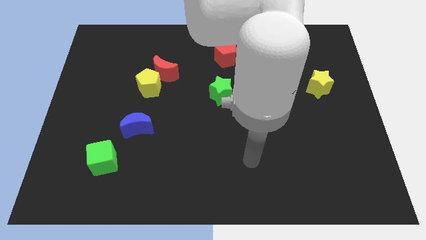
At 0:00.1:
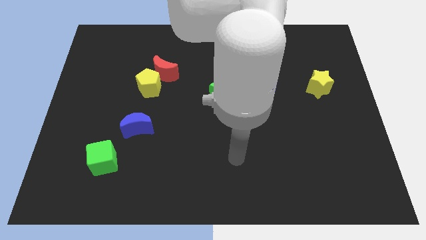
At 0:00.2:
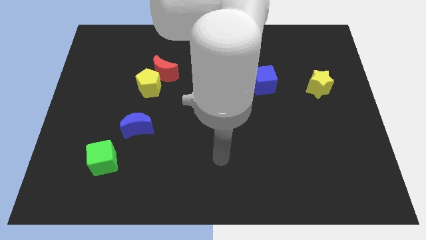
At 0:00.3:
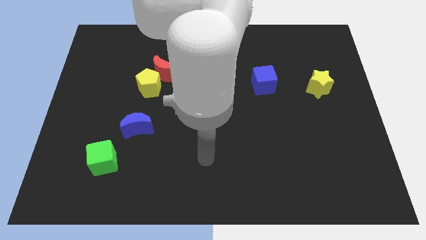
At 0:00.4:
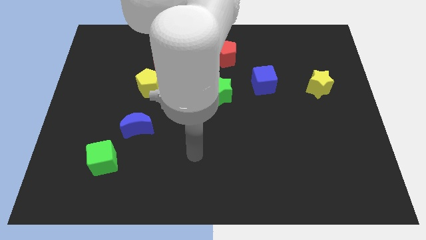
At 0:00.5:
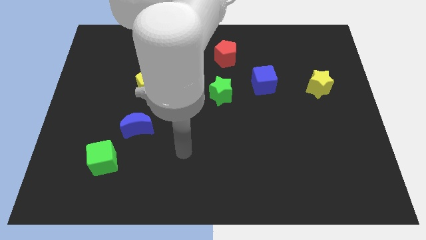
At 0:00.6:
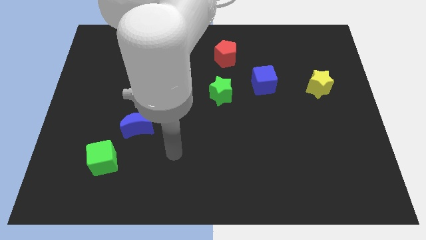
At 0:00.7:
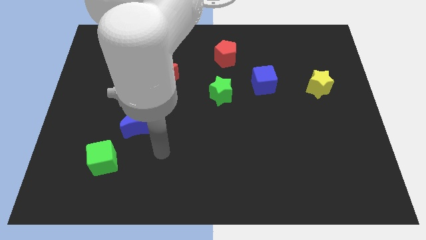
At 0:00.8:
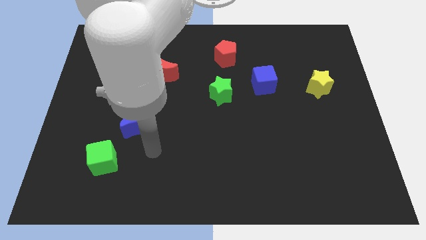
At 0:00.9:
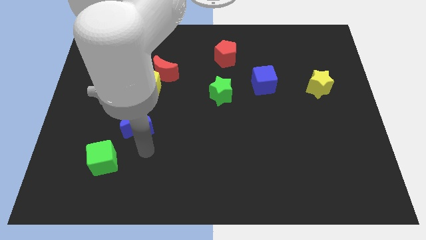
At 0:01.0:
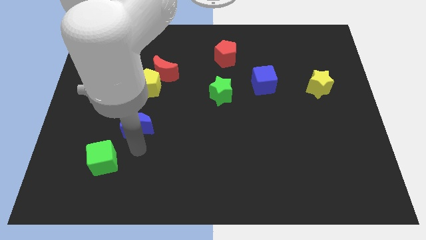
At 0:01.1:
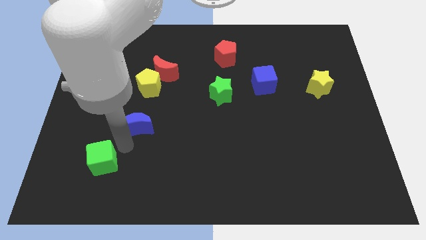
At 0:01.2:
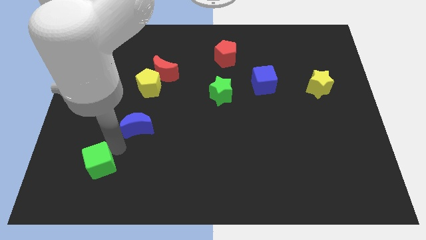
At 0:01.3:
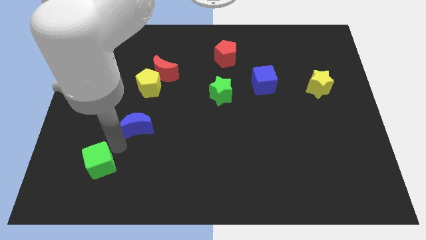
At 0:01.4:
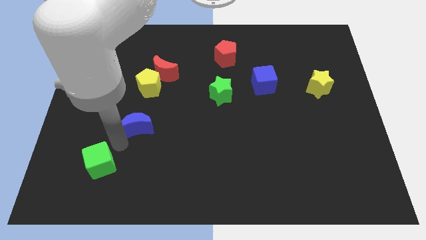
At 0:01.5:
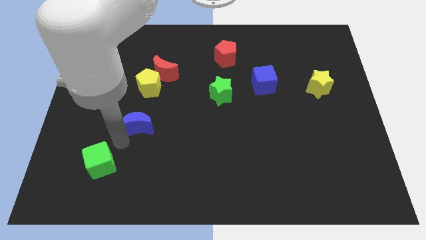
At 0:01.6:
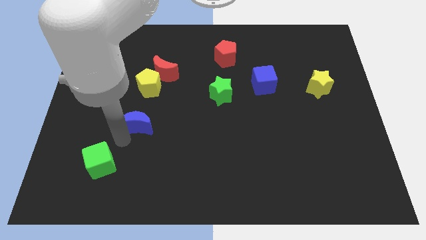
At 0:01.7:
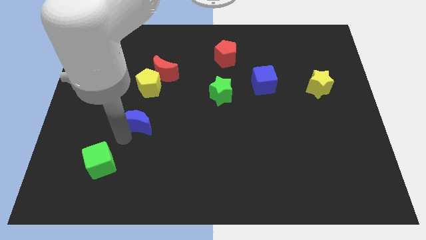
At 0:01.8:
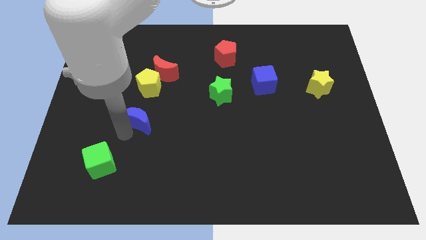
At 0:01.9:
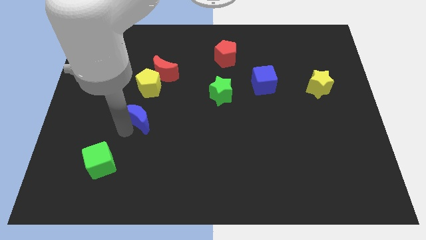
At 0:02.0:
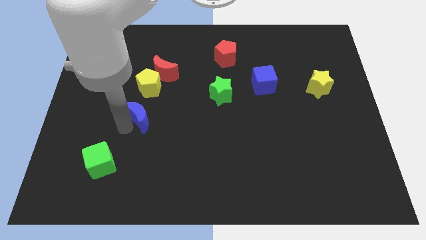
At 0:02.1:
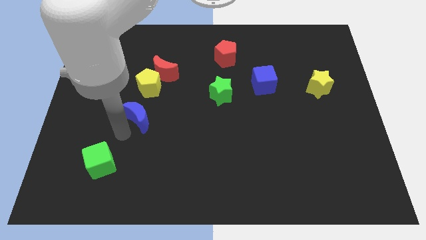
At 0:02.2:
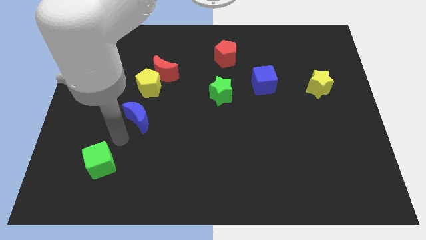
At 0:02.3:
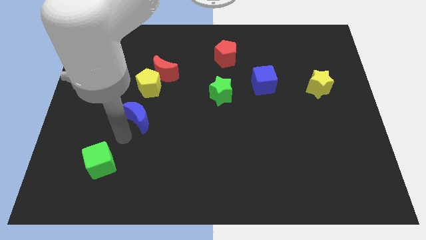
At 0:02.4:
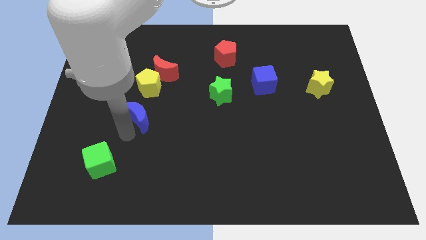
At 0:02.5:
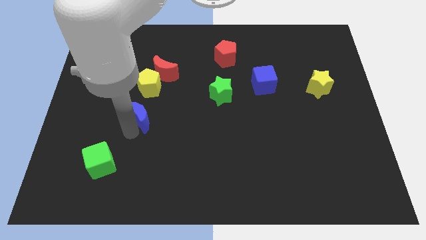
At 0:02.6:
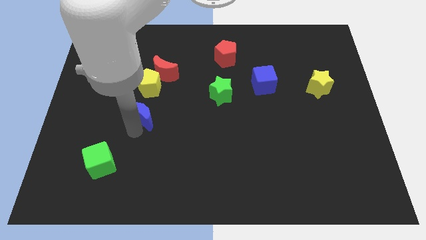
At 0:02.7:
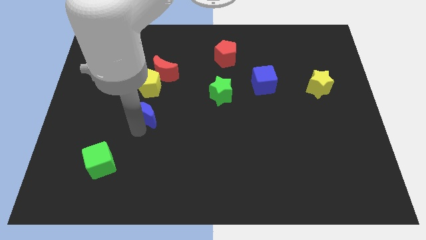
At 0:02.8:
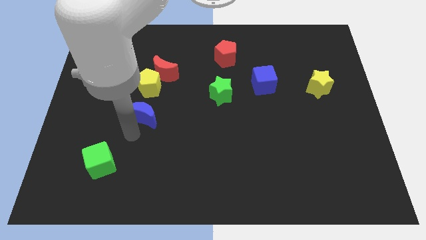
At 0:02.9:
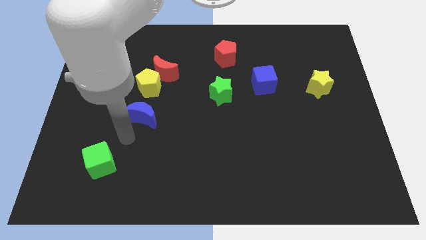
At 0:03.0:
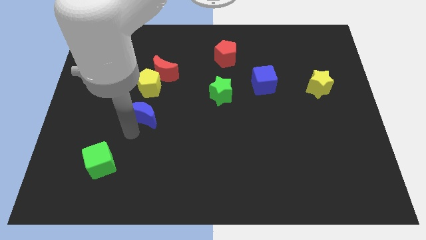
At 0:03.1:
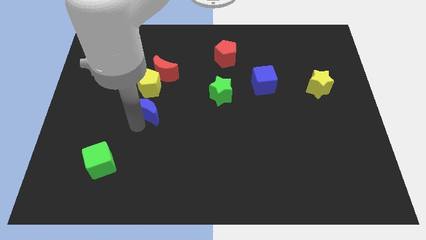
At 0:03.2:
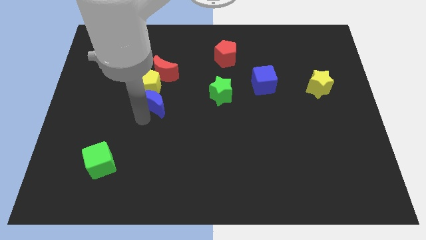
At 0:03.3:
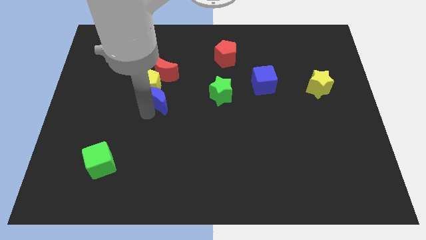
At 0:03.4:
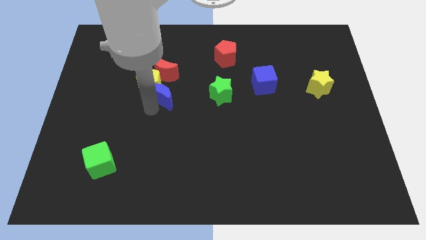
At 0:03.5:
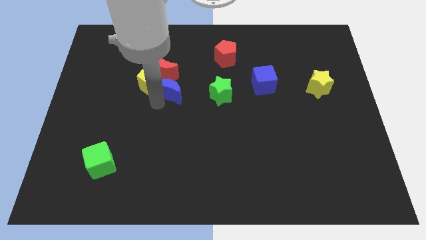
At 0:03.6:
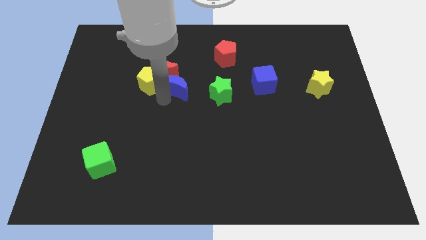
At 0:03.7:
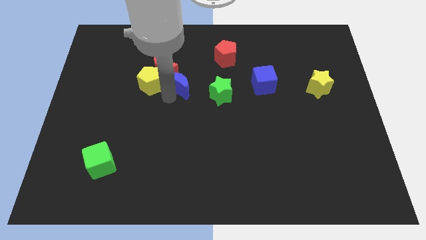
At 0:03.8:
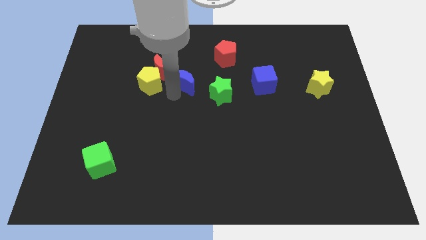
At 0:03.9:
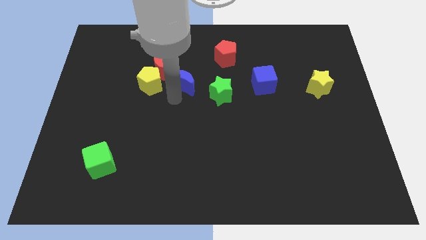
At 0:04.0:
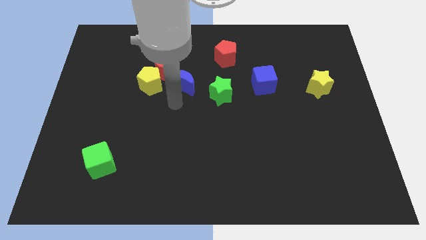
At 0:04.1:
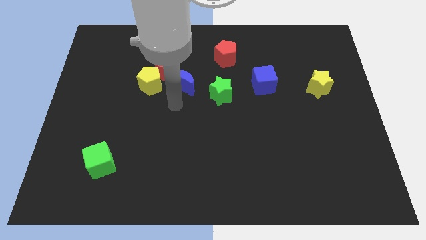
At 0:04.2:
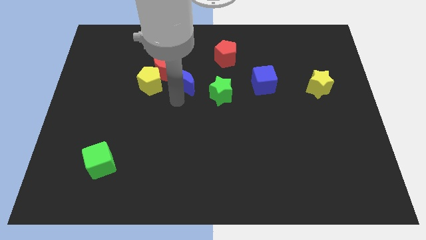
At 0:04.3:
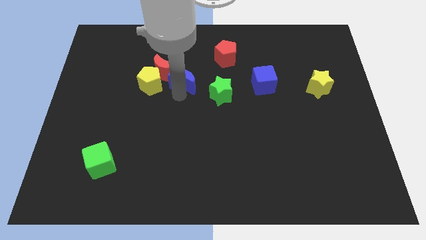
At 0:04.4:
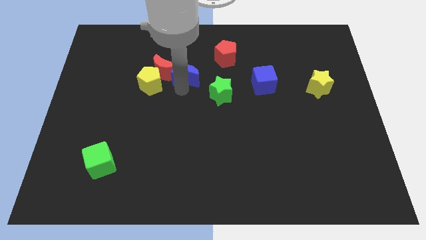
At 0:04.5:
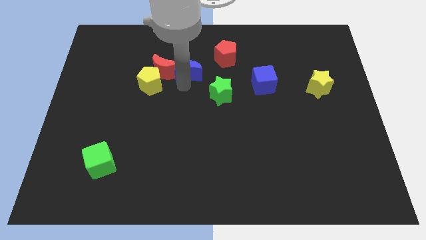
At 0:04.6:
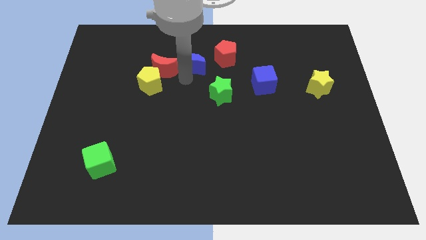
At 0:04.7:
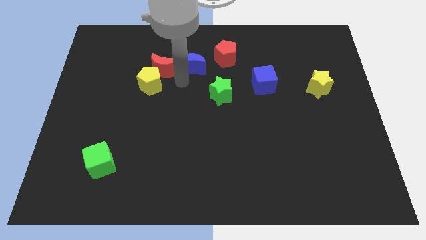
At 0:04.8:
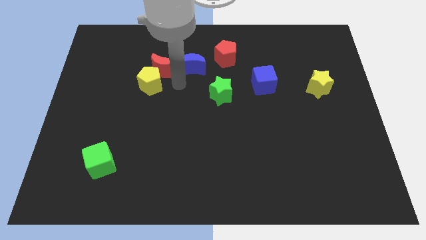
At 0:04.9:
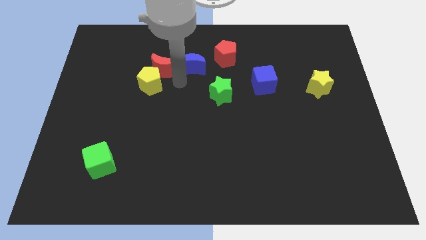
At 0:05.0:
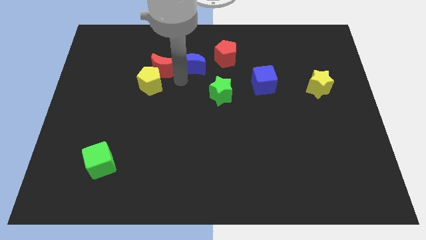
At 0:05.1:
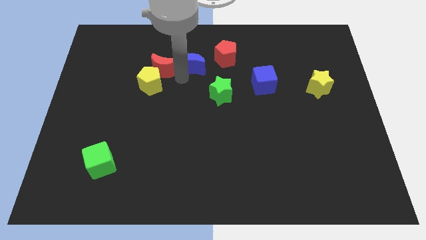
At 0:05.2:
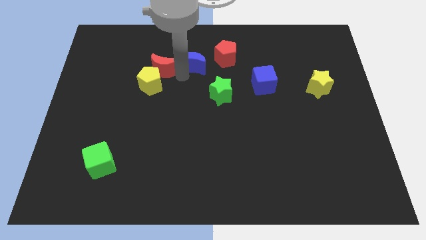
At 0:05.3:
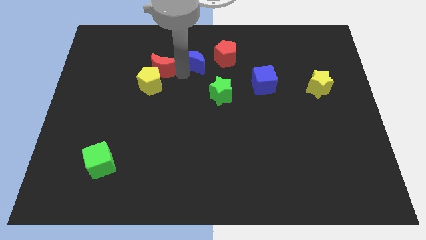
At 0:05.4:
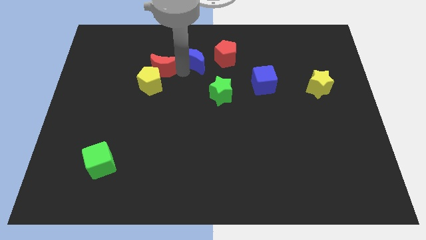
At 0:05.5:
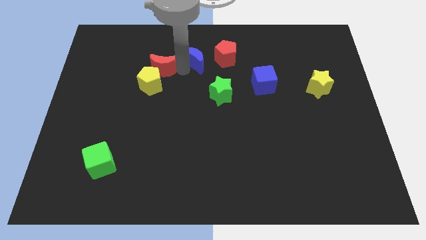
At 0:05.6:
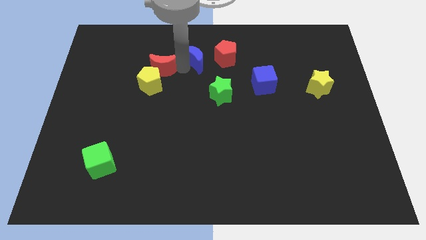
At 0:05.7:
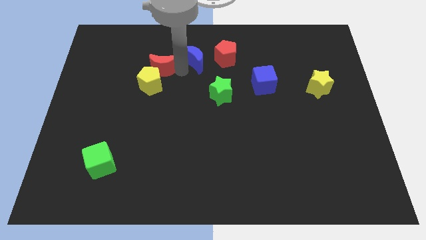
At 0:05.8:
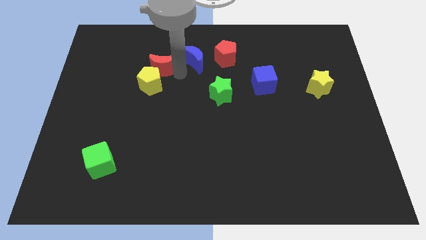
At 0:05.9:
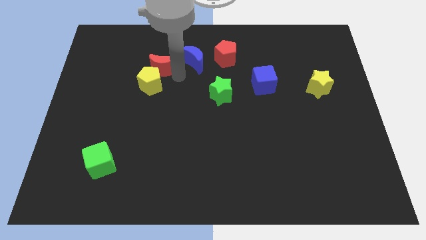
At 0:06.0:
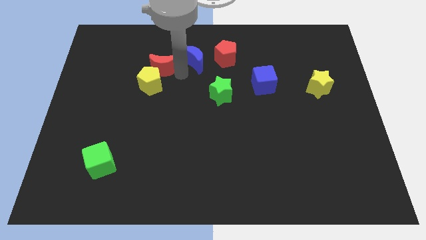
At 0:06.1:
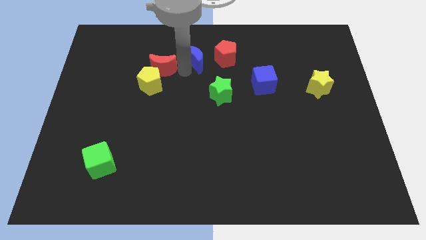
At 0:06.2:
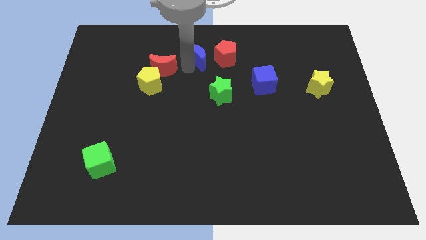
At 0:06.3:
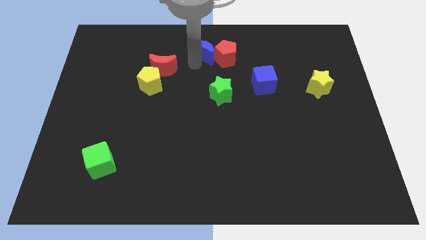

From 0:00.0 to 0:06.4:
put the blue moon to the top
